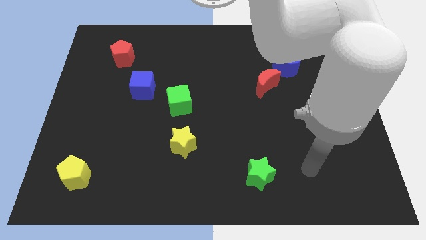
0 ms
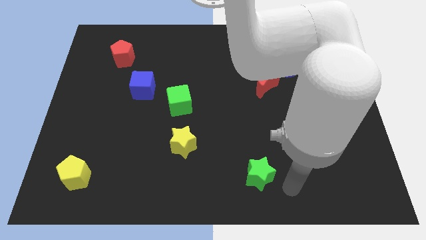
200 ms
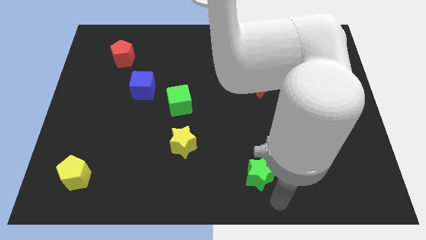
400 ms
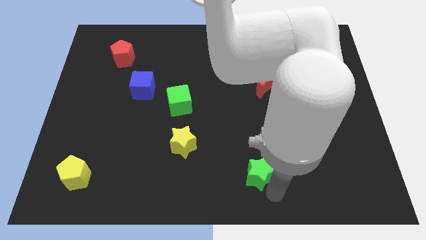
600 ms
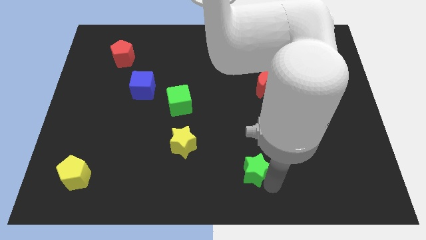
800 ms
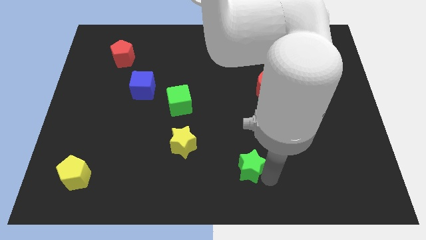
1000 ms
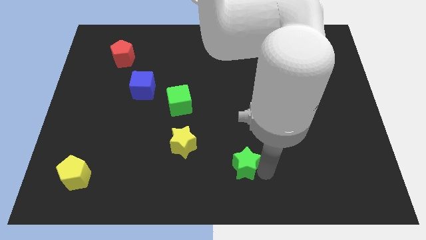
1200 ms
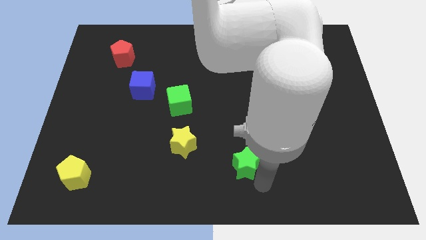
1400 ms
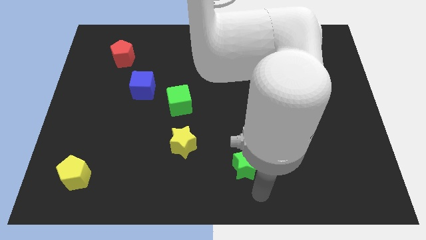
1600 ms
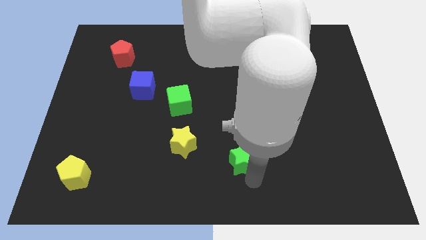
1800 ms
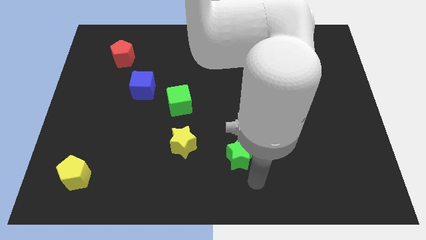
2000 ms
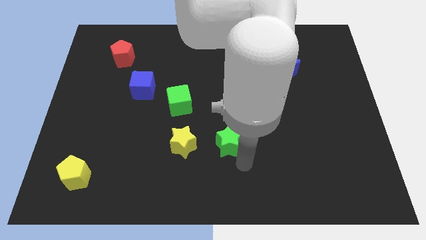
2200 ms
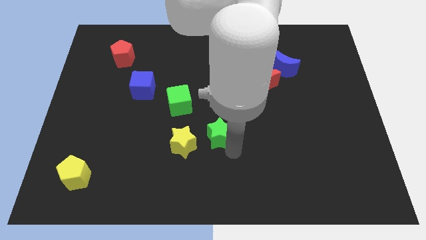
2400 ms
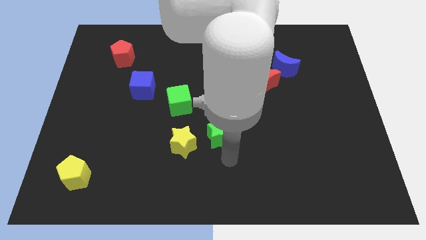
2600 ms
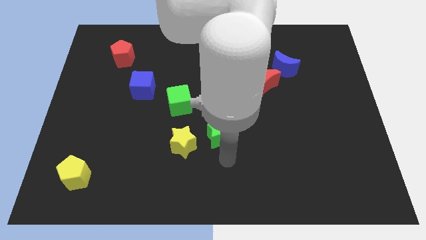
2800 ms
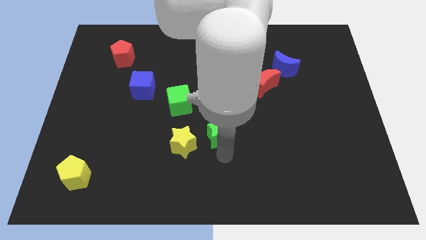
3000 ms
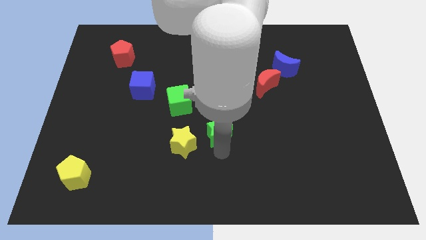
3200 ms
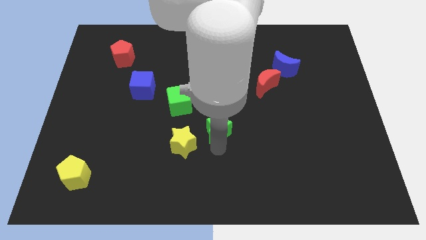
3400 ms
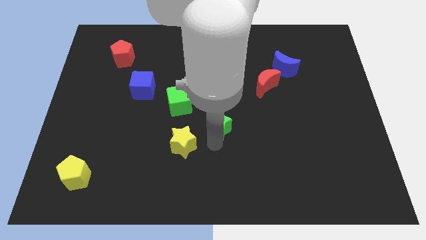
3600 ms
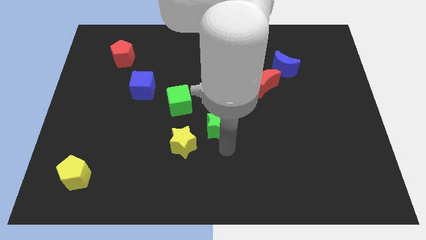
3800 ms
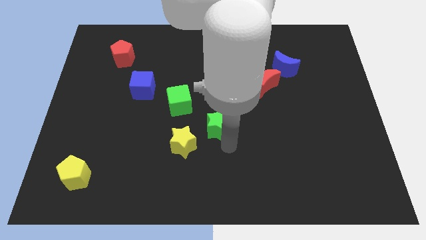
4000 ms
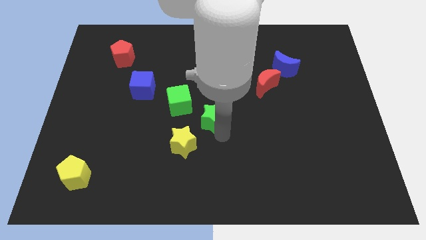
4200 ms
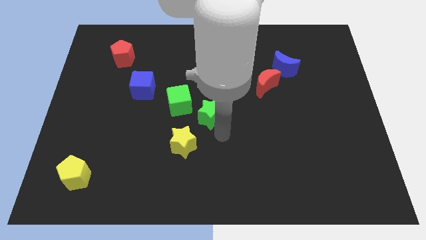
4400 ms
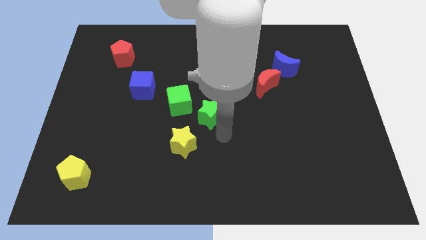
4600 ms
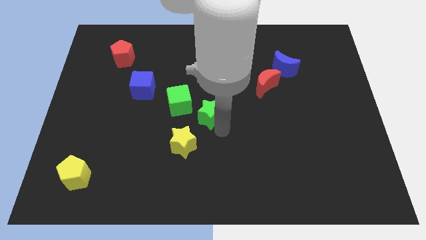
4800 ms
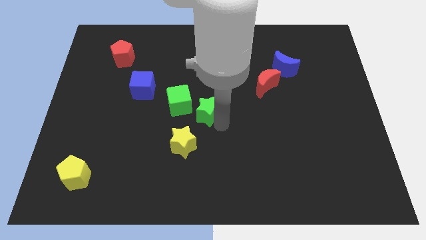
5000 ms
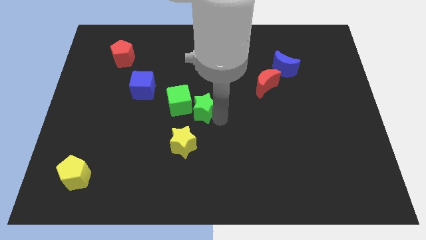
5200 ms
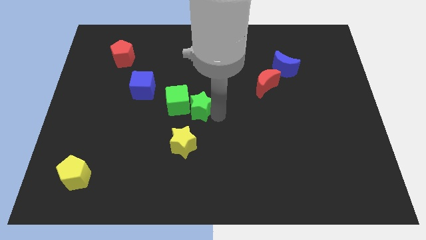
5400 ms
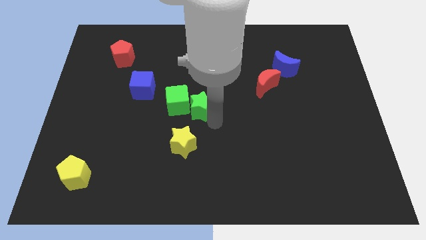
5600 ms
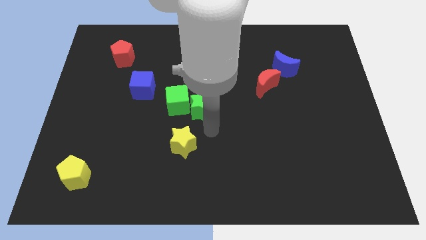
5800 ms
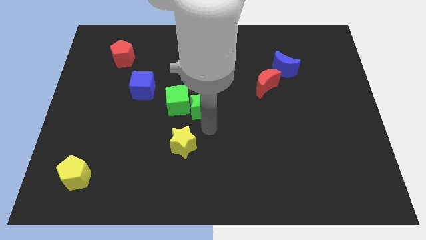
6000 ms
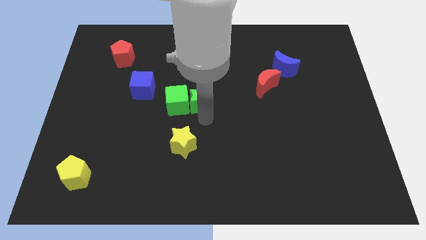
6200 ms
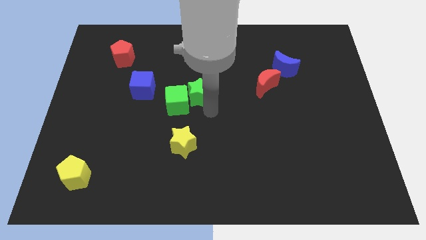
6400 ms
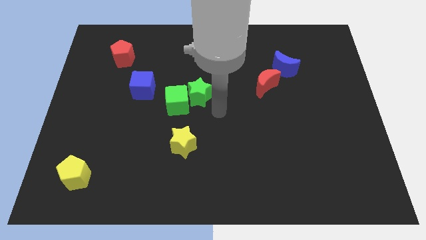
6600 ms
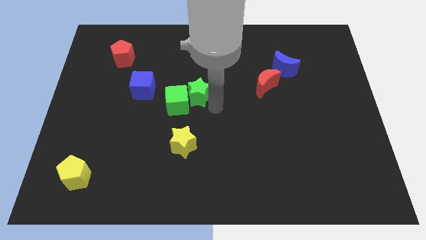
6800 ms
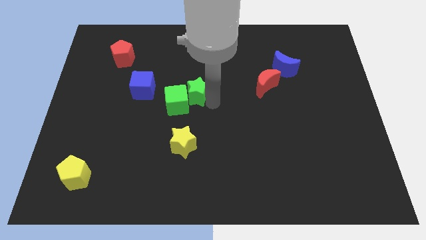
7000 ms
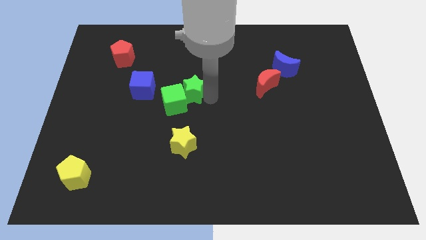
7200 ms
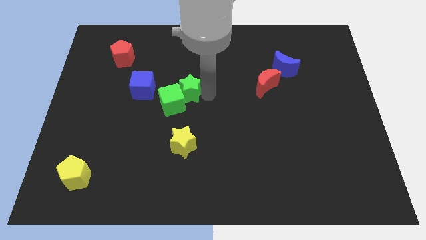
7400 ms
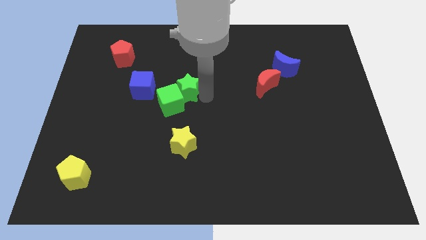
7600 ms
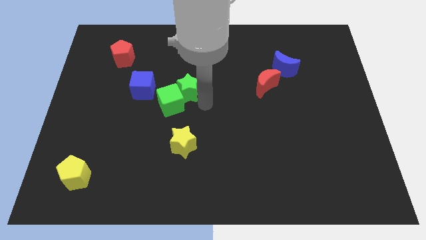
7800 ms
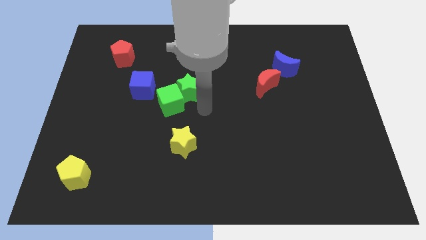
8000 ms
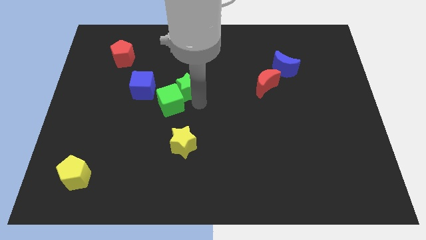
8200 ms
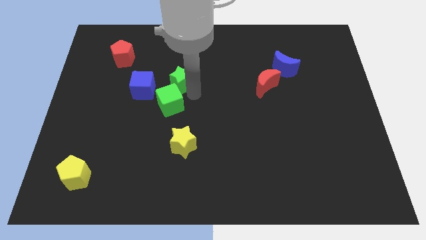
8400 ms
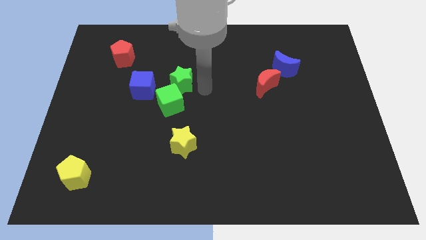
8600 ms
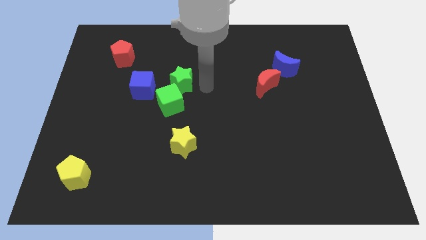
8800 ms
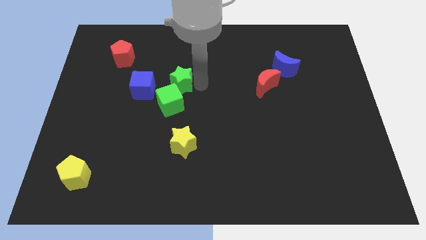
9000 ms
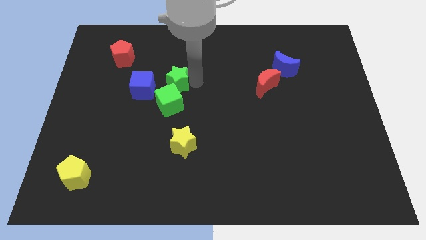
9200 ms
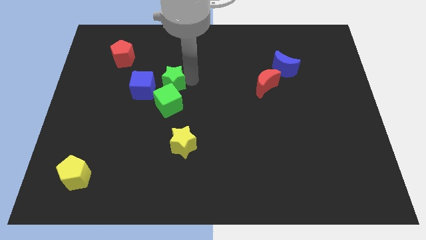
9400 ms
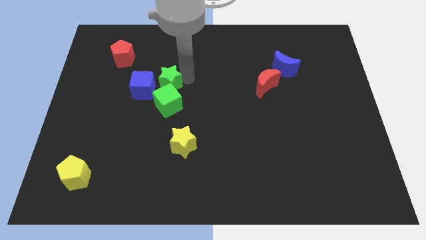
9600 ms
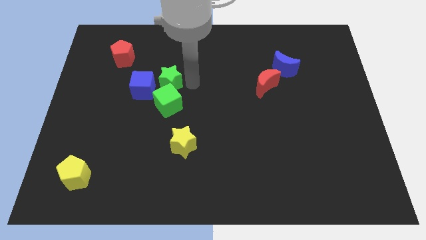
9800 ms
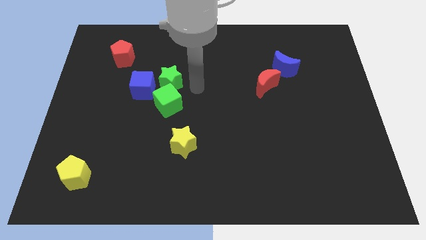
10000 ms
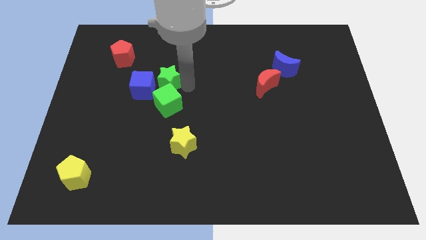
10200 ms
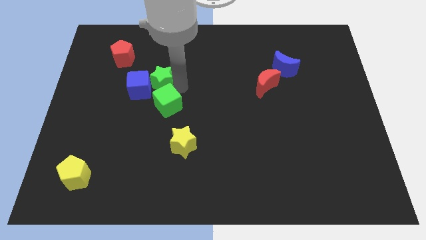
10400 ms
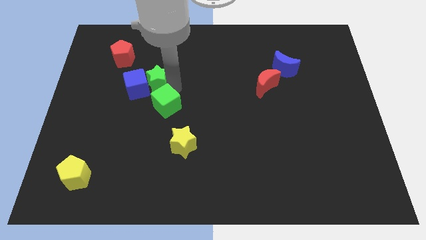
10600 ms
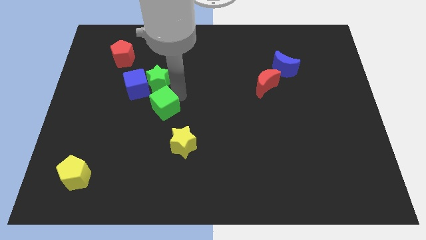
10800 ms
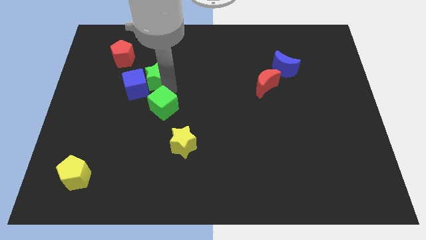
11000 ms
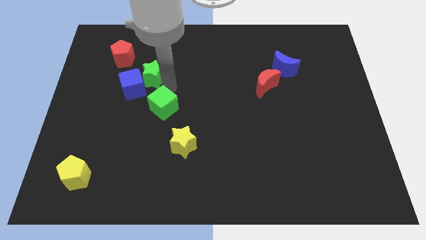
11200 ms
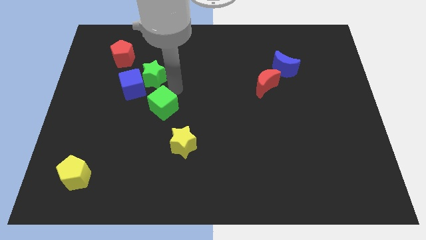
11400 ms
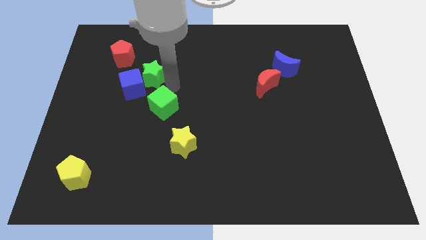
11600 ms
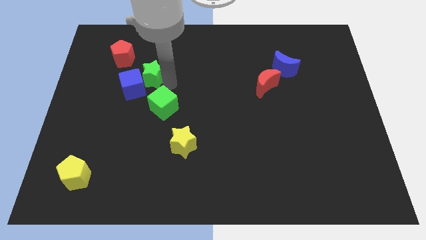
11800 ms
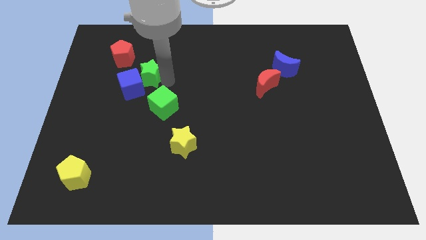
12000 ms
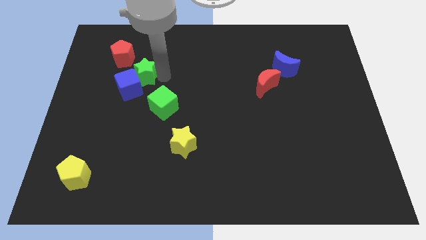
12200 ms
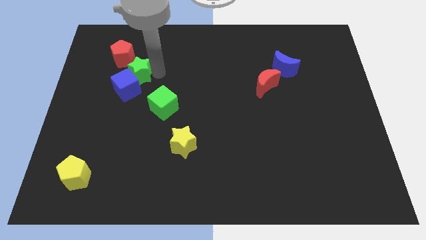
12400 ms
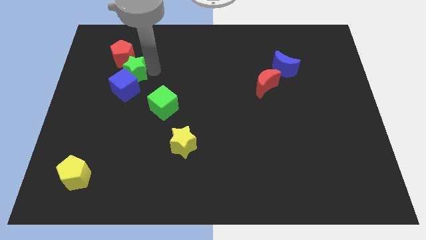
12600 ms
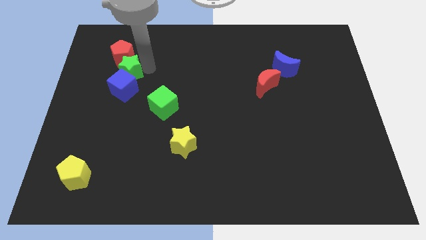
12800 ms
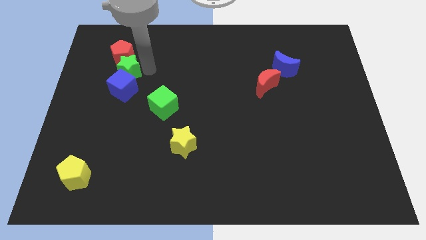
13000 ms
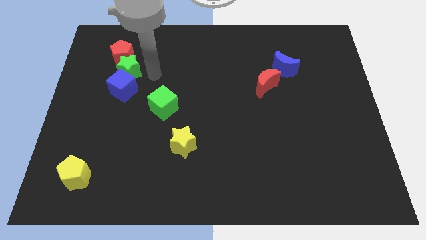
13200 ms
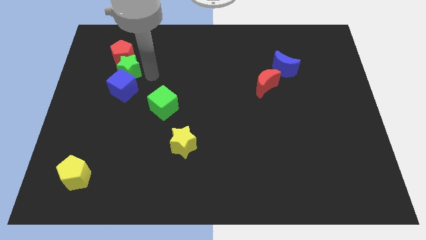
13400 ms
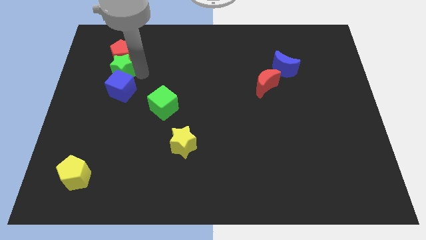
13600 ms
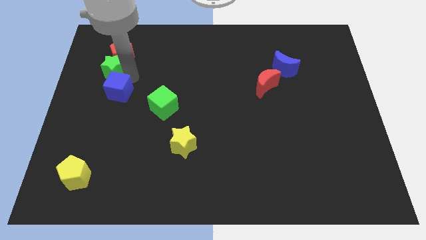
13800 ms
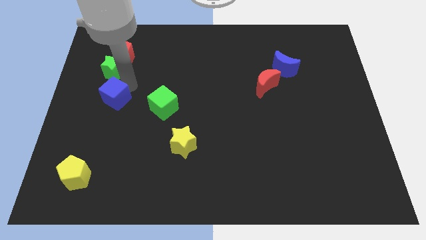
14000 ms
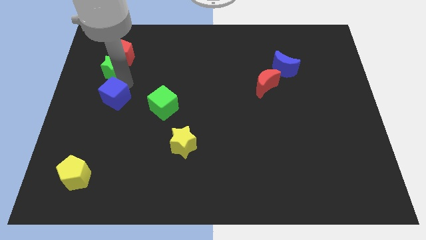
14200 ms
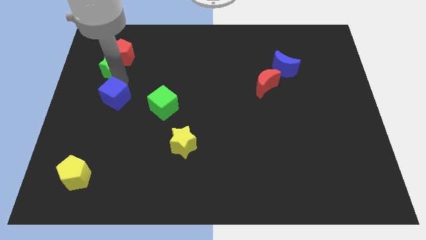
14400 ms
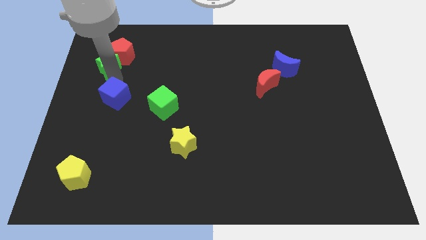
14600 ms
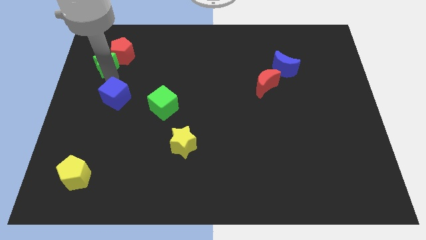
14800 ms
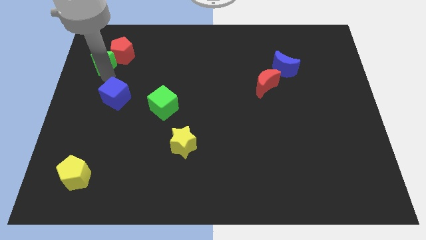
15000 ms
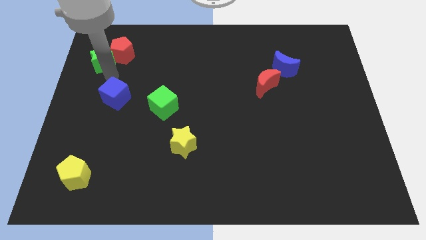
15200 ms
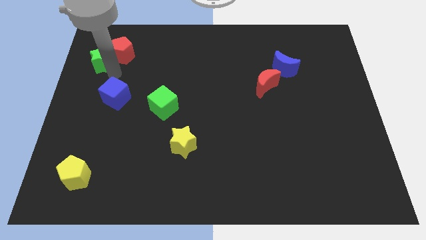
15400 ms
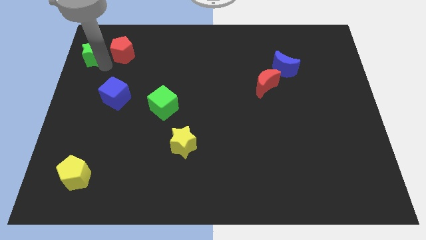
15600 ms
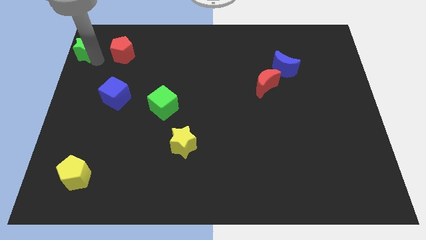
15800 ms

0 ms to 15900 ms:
slide the green star to the top left
